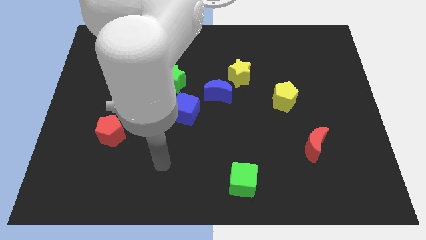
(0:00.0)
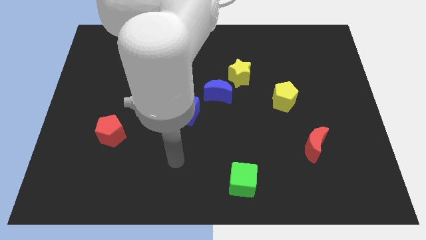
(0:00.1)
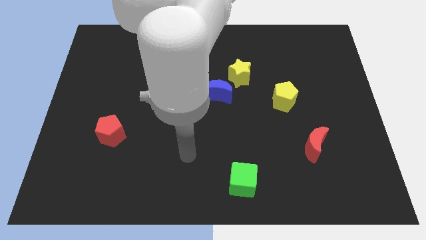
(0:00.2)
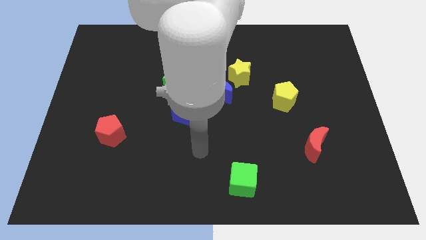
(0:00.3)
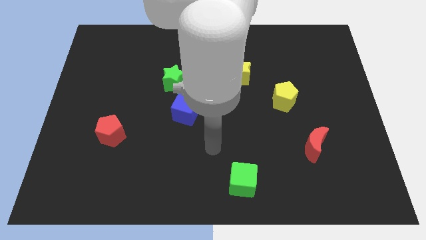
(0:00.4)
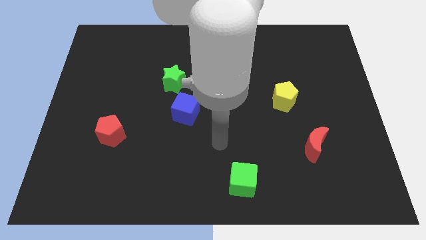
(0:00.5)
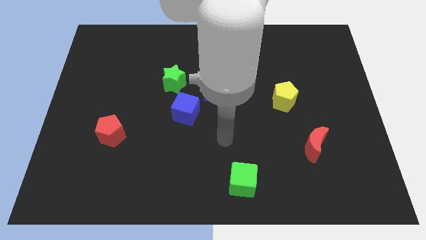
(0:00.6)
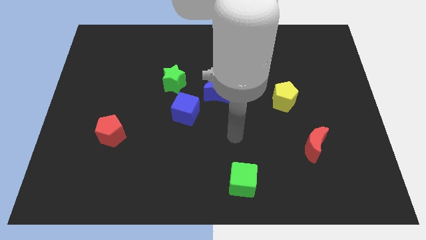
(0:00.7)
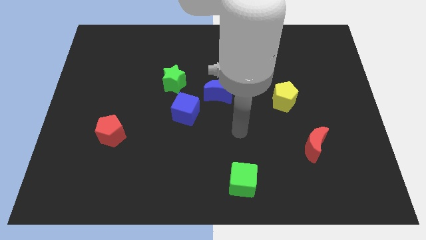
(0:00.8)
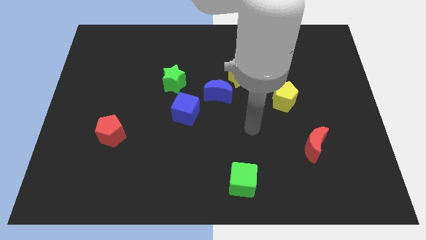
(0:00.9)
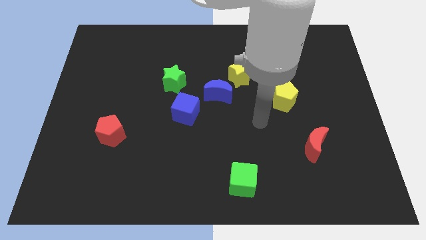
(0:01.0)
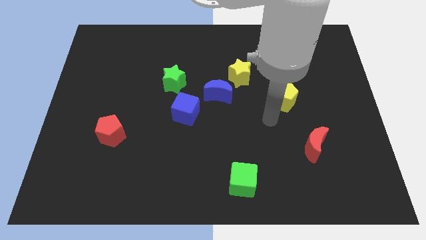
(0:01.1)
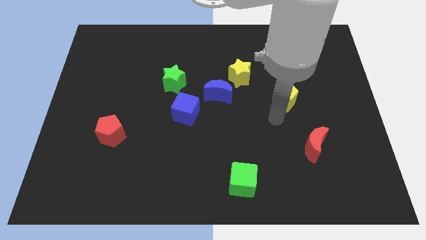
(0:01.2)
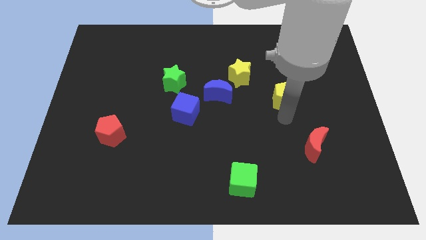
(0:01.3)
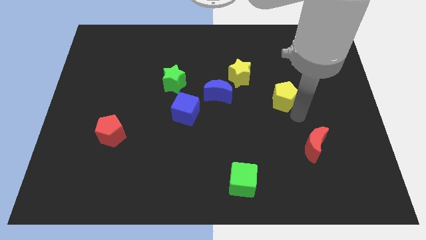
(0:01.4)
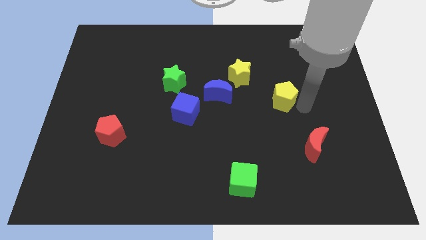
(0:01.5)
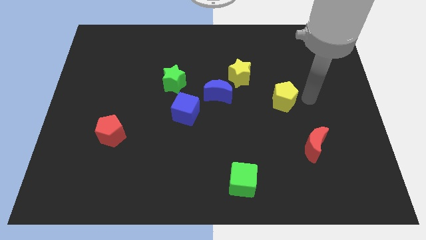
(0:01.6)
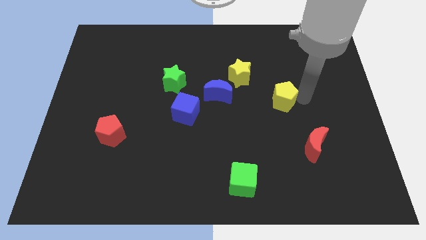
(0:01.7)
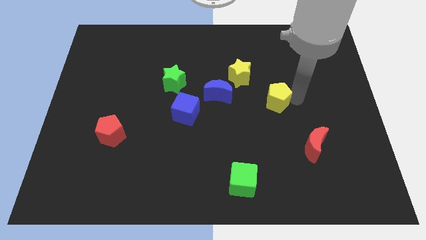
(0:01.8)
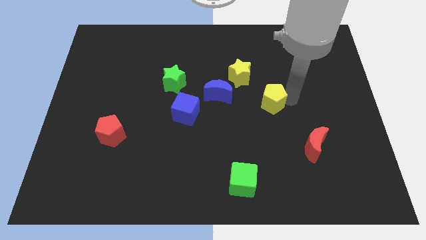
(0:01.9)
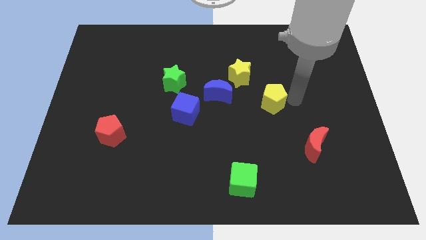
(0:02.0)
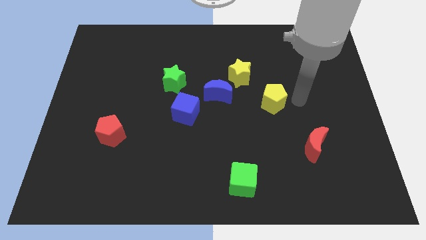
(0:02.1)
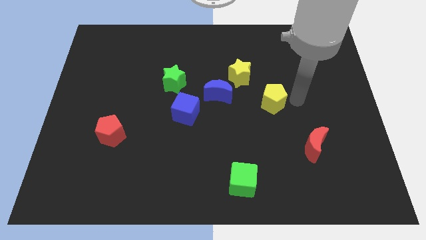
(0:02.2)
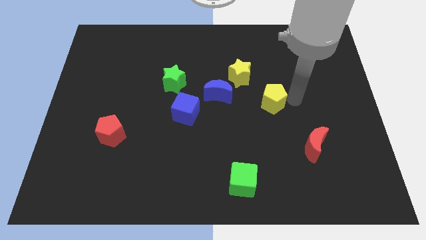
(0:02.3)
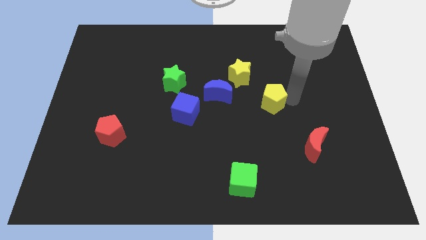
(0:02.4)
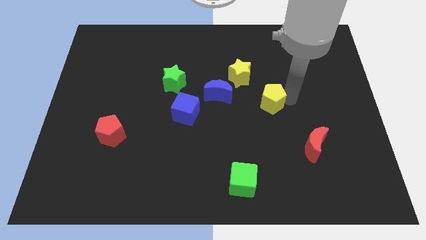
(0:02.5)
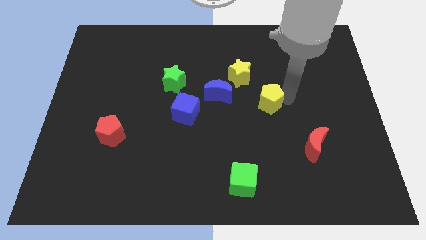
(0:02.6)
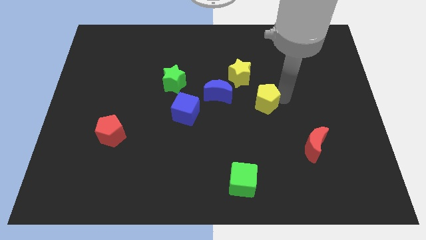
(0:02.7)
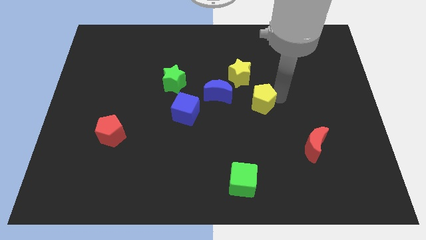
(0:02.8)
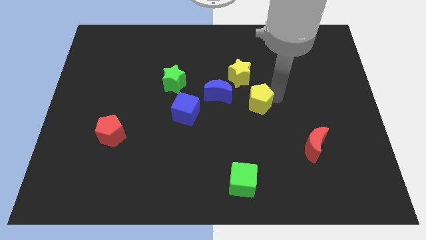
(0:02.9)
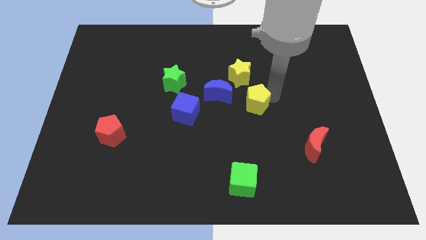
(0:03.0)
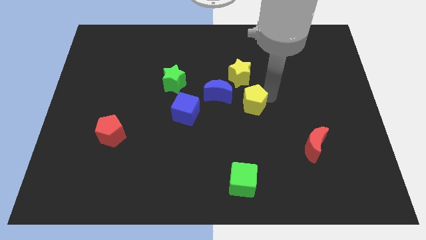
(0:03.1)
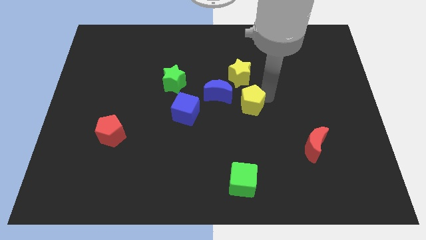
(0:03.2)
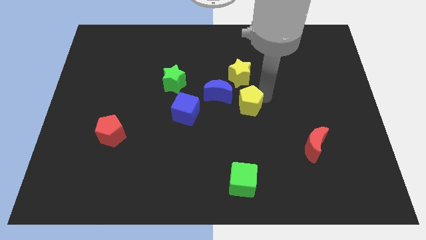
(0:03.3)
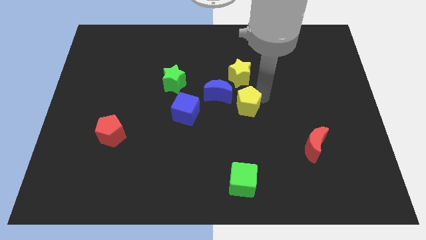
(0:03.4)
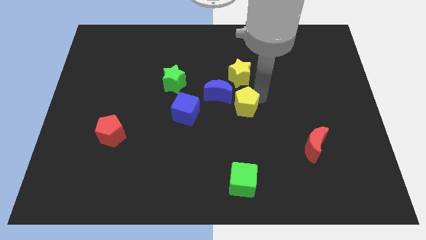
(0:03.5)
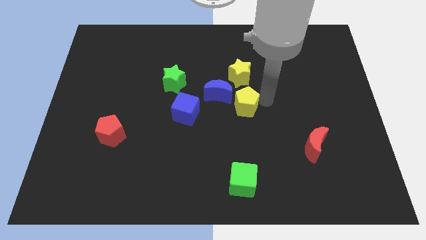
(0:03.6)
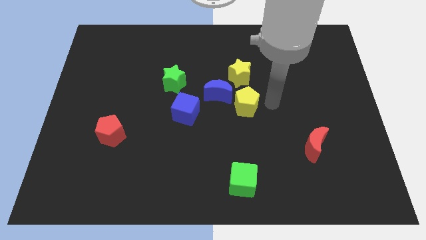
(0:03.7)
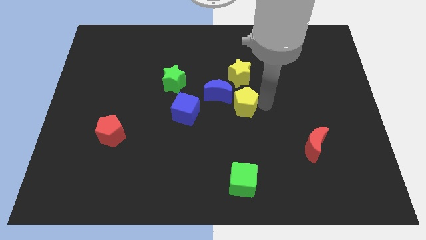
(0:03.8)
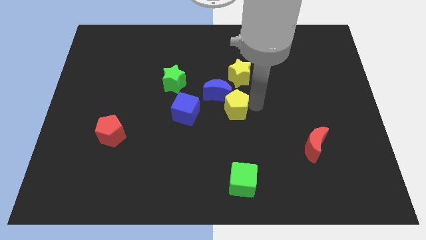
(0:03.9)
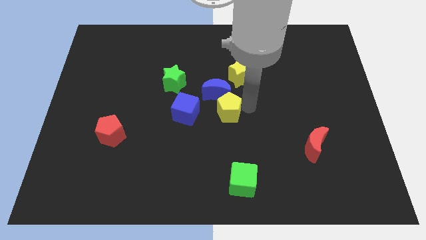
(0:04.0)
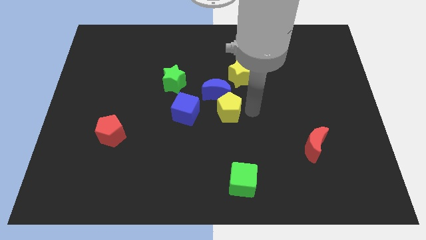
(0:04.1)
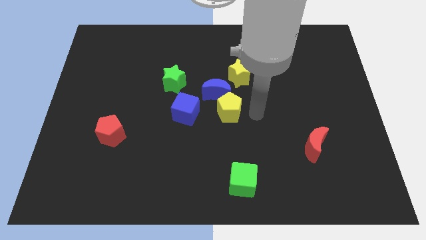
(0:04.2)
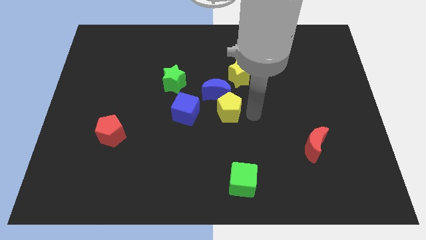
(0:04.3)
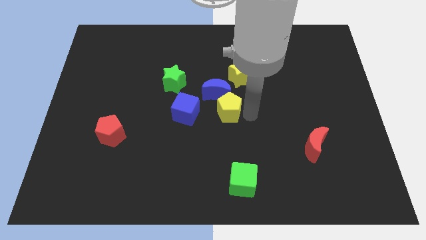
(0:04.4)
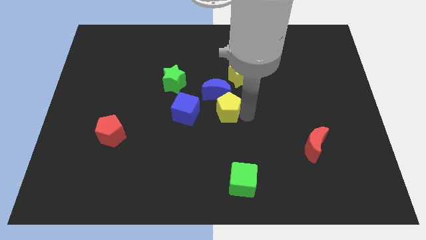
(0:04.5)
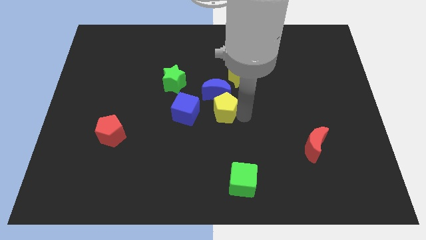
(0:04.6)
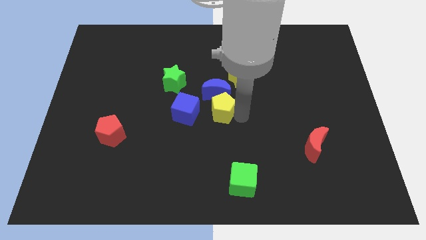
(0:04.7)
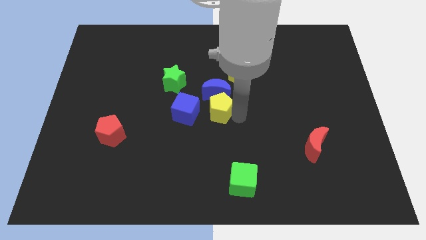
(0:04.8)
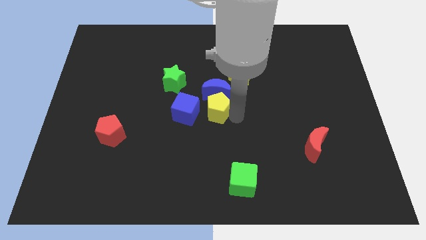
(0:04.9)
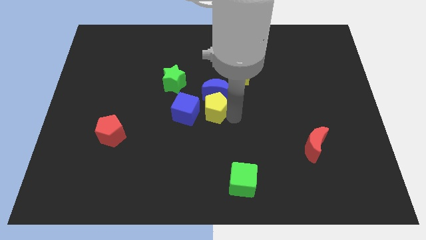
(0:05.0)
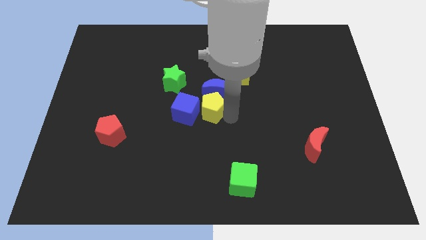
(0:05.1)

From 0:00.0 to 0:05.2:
put the yellow pentagon next to the blue cube

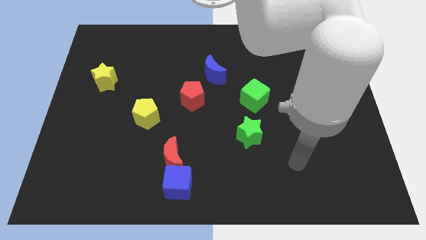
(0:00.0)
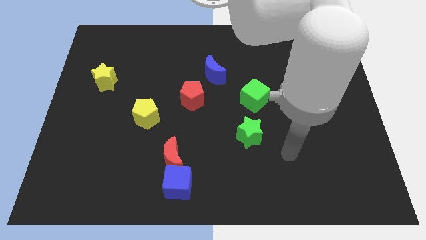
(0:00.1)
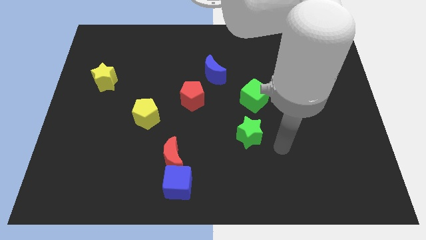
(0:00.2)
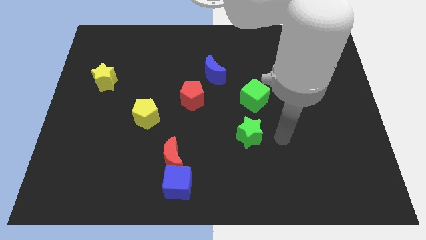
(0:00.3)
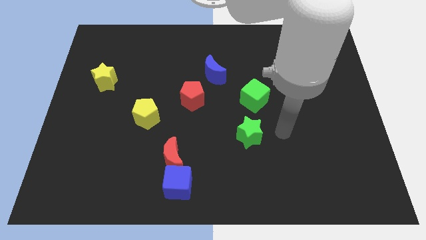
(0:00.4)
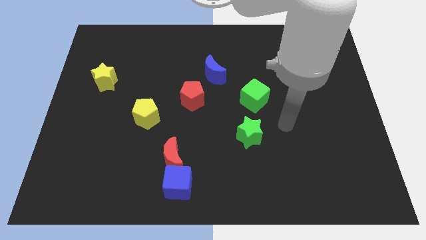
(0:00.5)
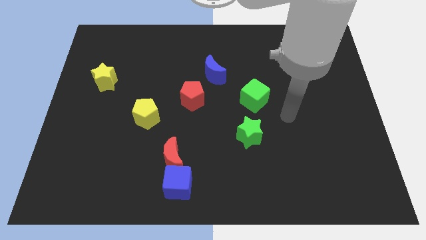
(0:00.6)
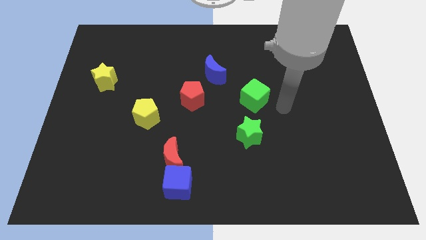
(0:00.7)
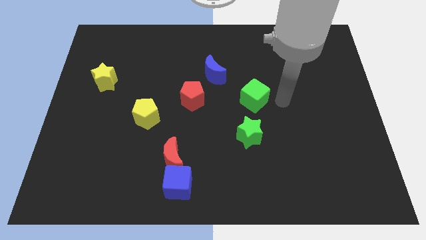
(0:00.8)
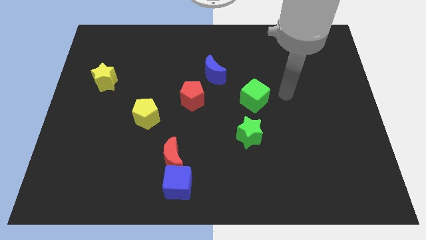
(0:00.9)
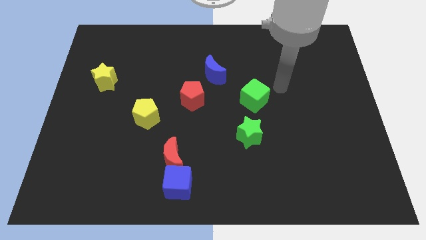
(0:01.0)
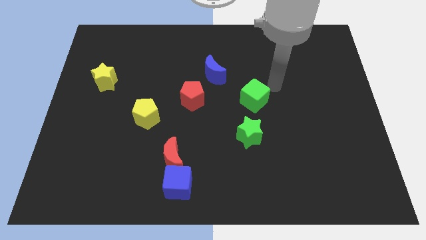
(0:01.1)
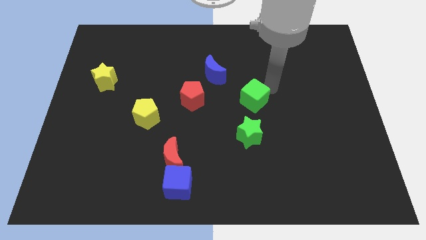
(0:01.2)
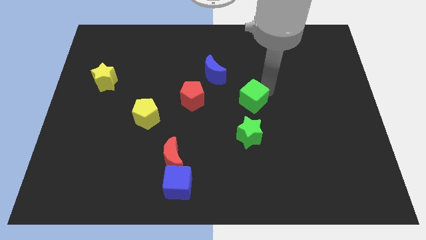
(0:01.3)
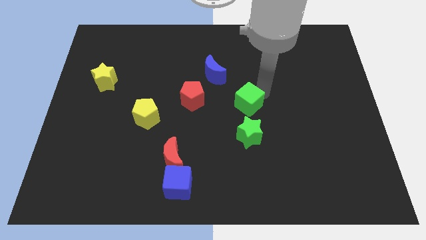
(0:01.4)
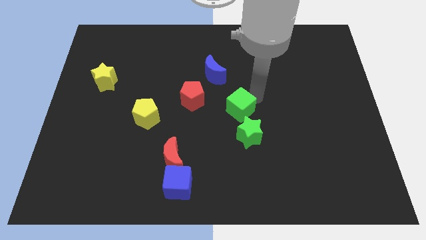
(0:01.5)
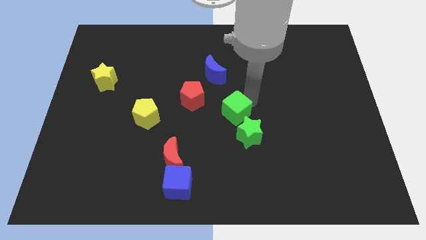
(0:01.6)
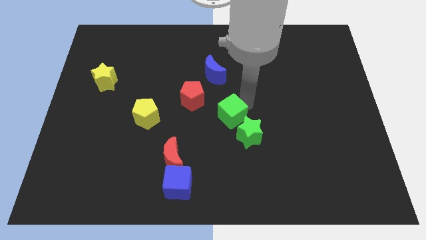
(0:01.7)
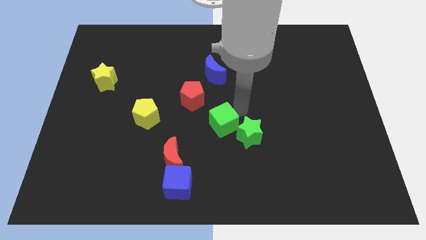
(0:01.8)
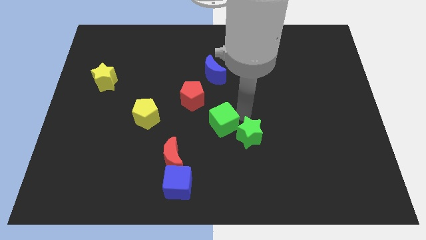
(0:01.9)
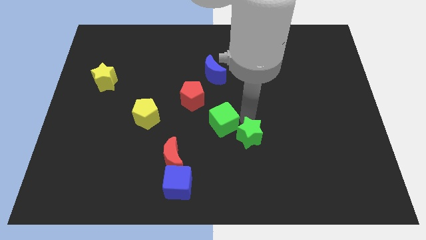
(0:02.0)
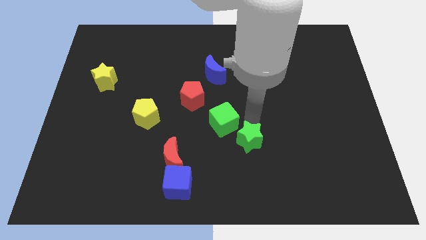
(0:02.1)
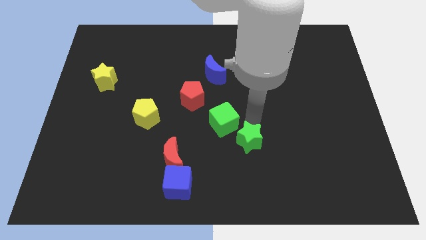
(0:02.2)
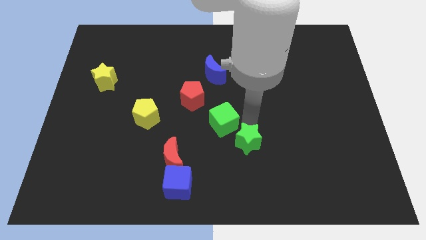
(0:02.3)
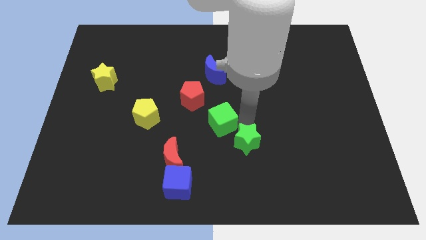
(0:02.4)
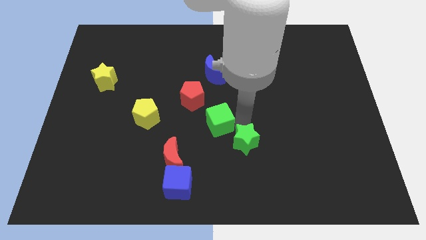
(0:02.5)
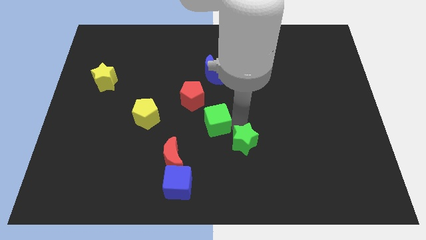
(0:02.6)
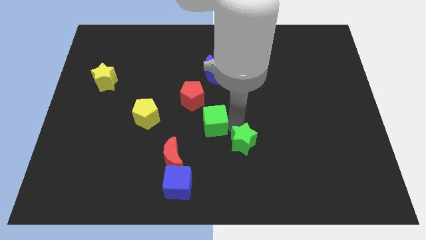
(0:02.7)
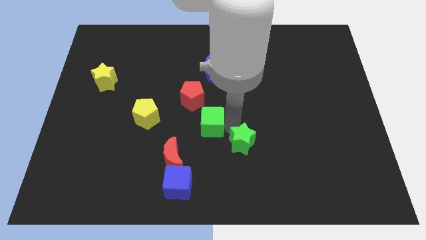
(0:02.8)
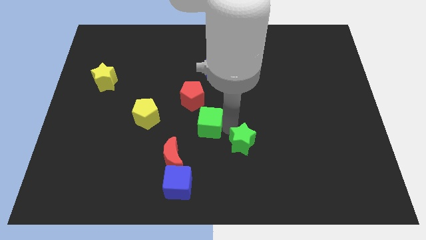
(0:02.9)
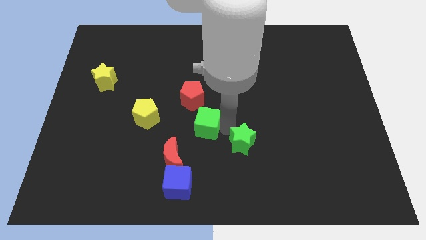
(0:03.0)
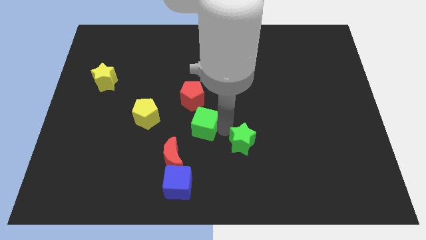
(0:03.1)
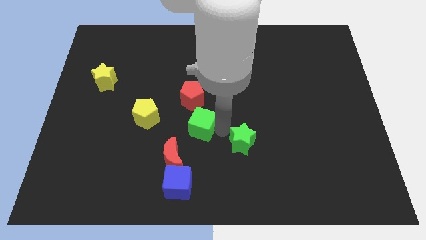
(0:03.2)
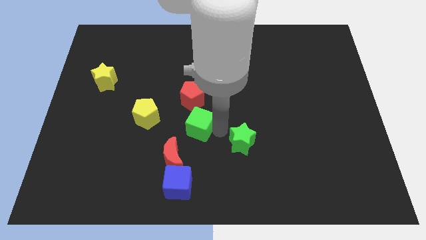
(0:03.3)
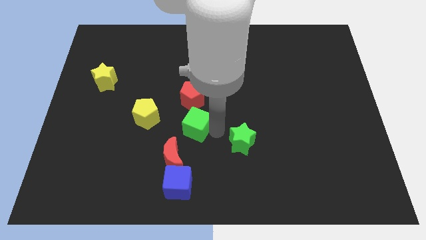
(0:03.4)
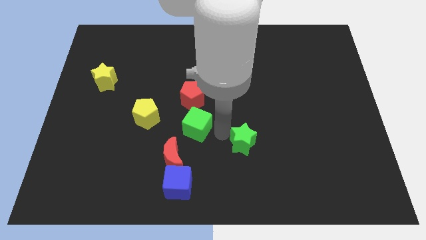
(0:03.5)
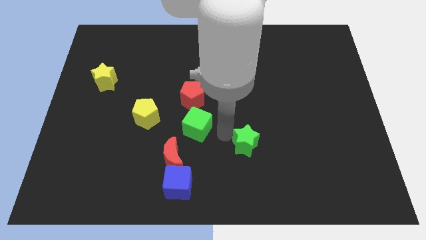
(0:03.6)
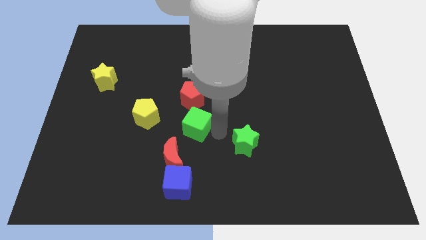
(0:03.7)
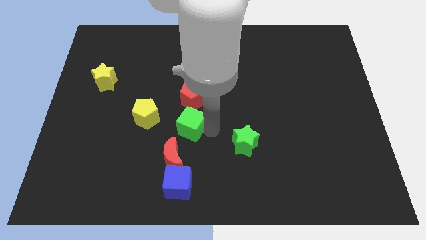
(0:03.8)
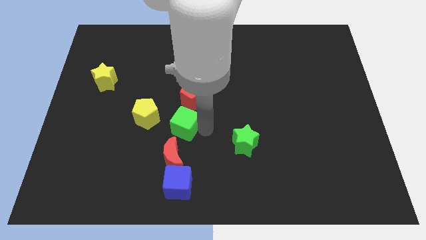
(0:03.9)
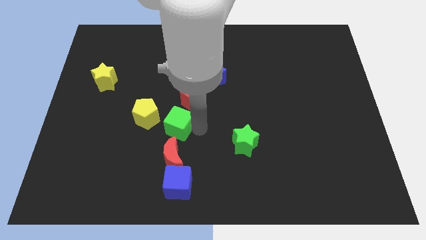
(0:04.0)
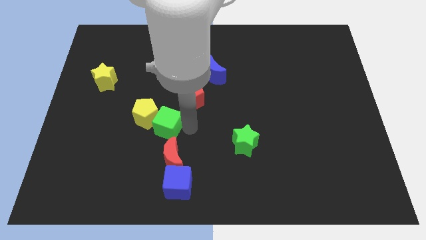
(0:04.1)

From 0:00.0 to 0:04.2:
slide the green cube close to the yellow pentagon
